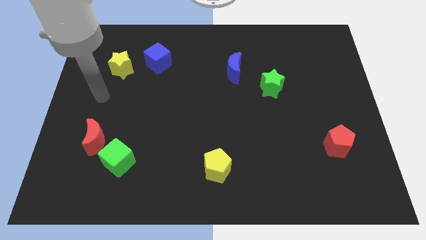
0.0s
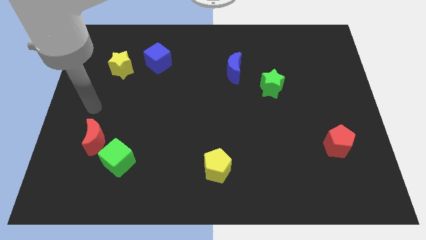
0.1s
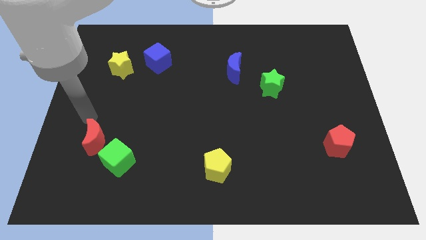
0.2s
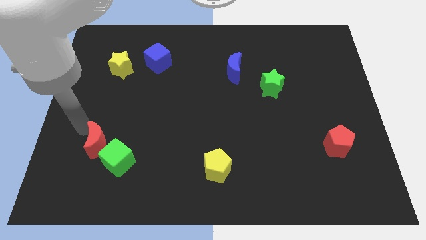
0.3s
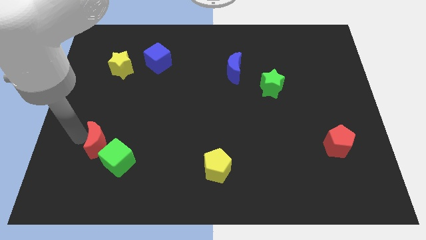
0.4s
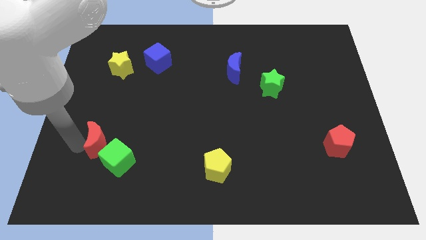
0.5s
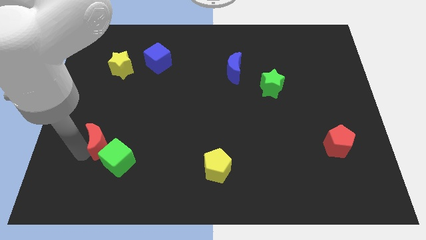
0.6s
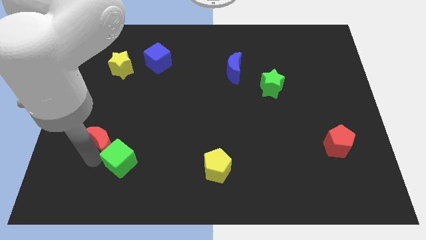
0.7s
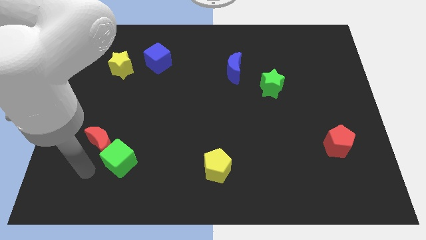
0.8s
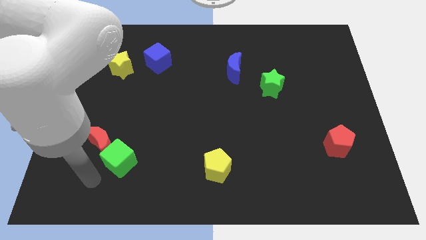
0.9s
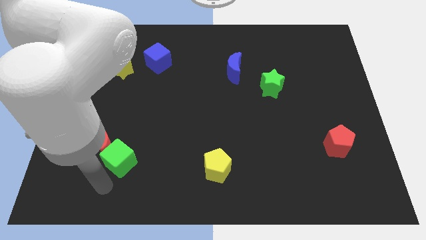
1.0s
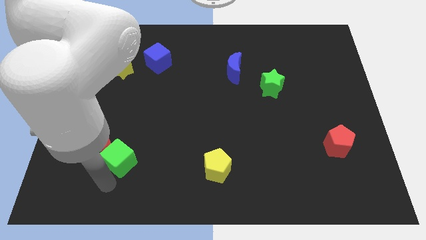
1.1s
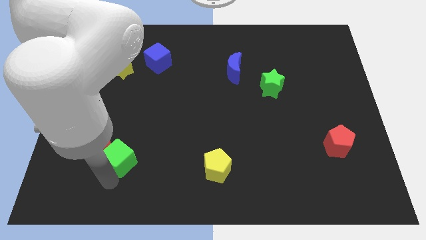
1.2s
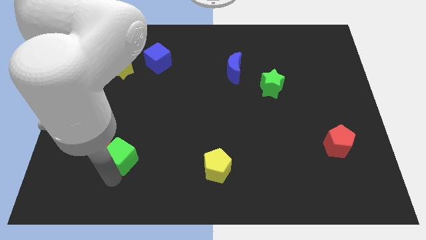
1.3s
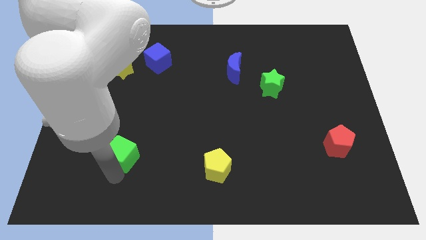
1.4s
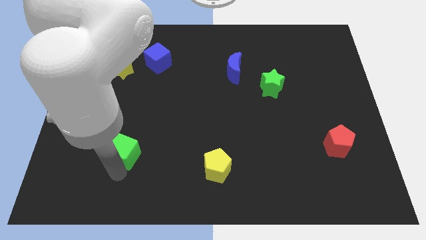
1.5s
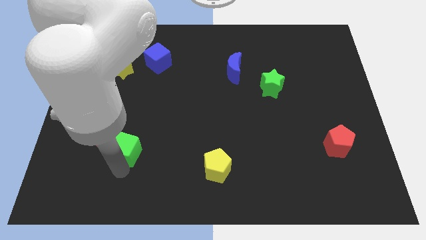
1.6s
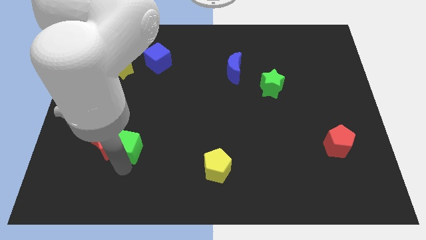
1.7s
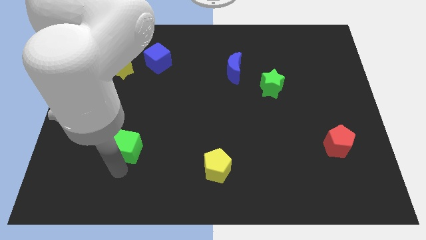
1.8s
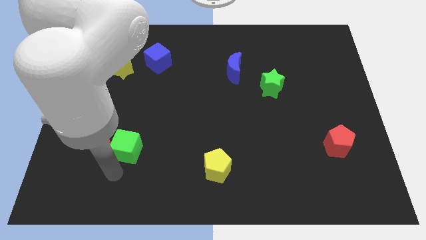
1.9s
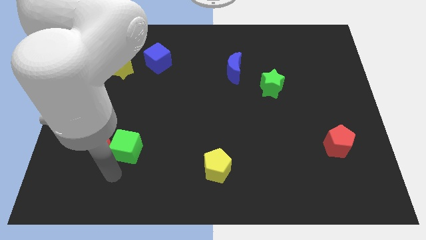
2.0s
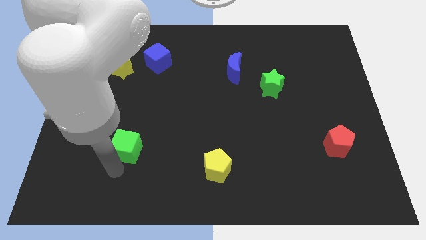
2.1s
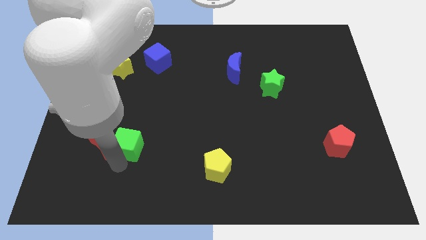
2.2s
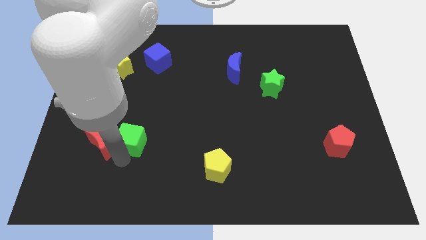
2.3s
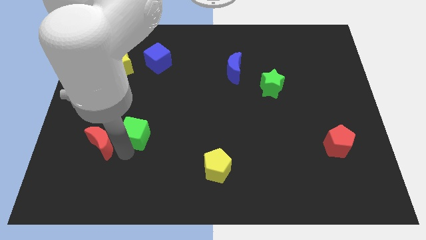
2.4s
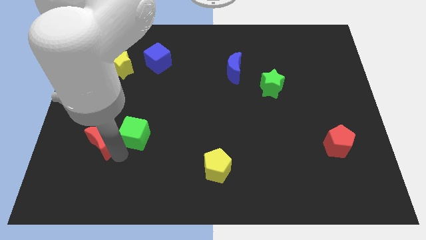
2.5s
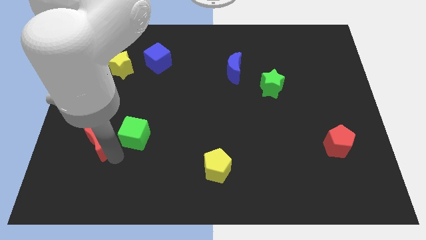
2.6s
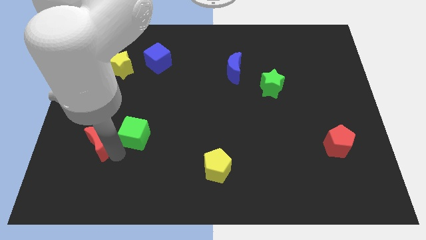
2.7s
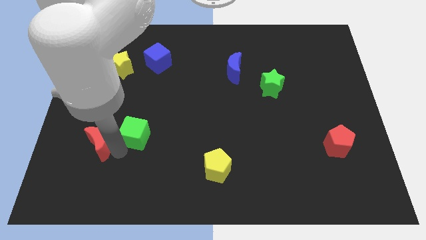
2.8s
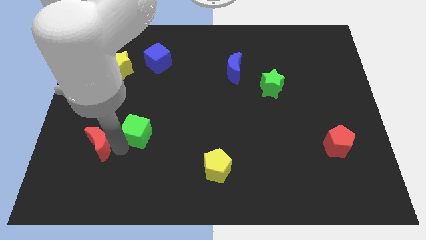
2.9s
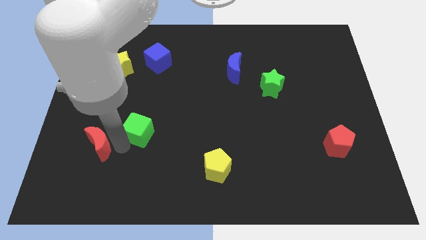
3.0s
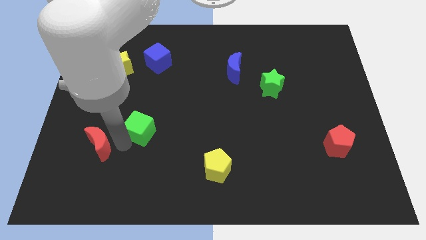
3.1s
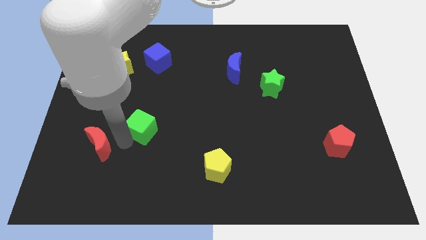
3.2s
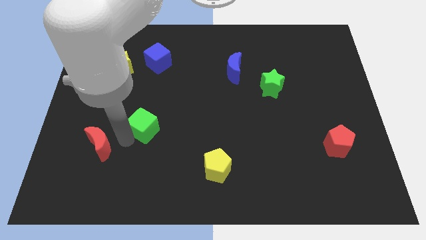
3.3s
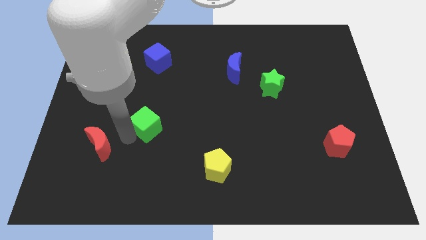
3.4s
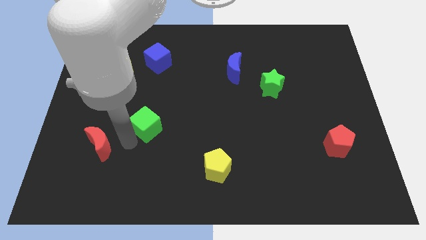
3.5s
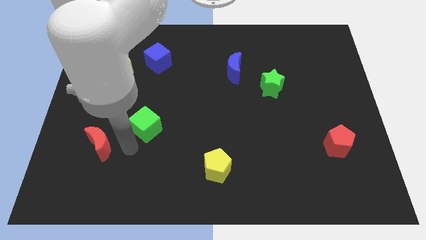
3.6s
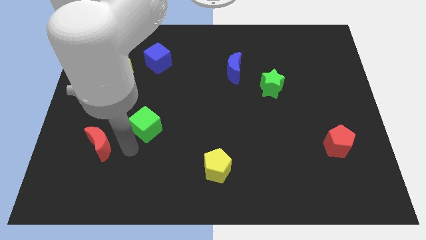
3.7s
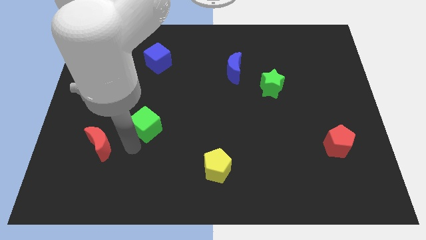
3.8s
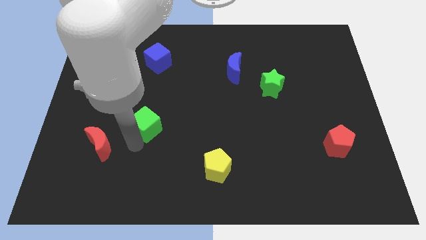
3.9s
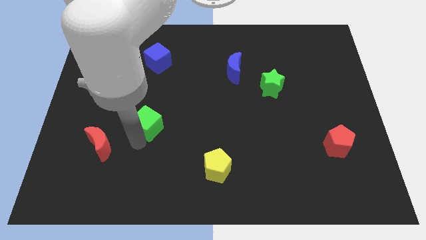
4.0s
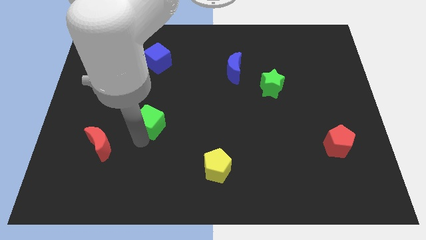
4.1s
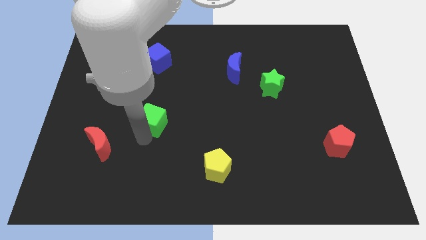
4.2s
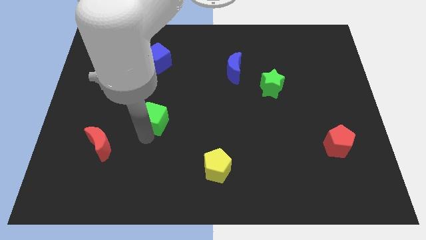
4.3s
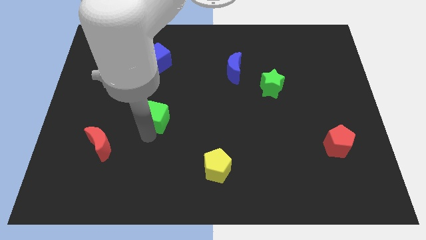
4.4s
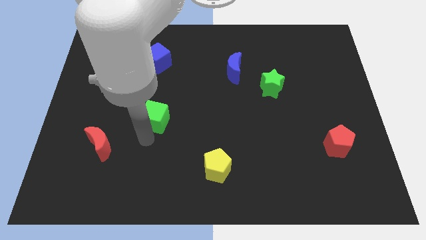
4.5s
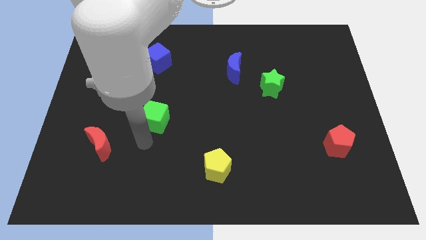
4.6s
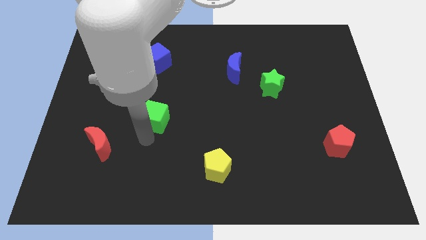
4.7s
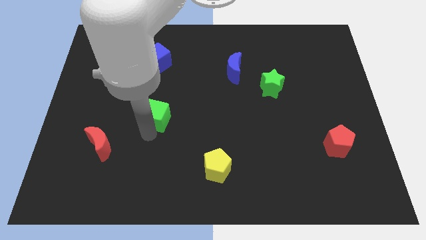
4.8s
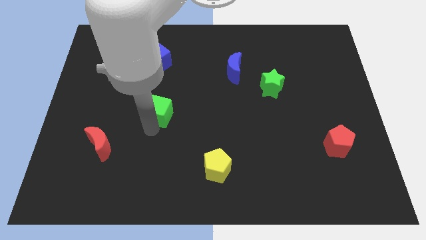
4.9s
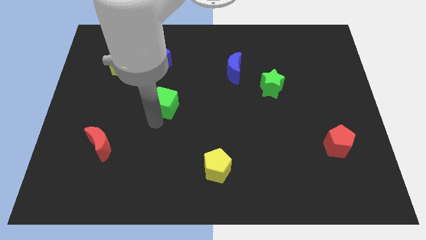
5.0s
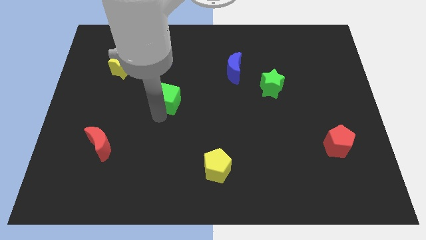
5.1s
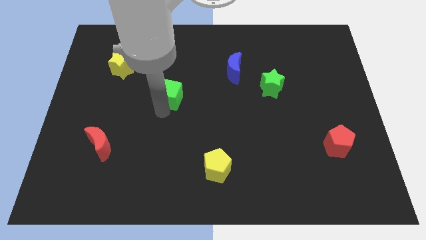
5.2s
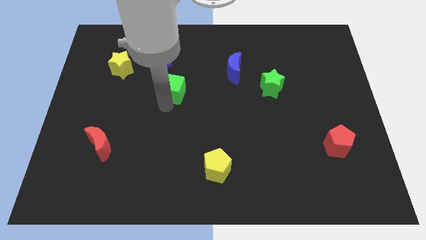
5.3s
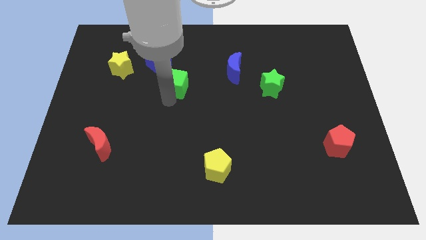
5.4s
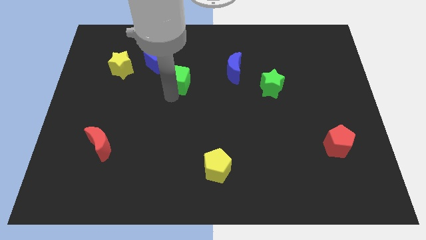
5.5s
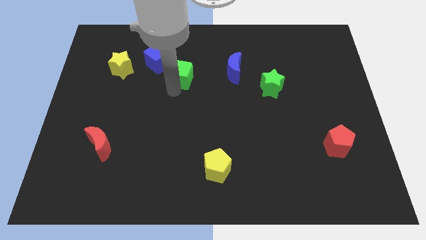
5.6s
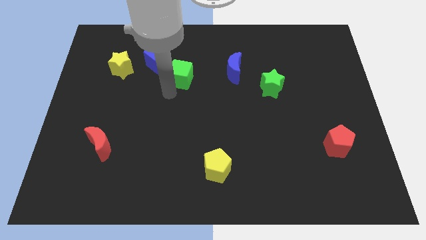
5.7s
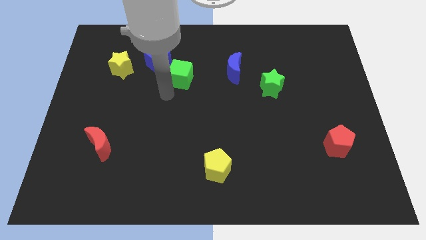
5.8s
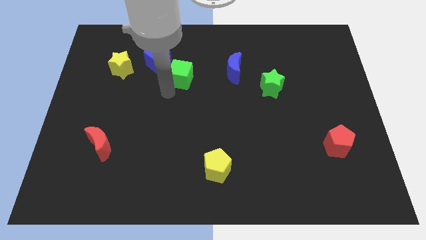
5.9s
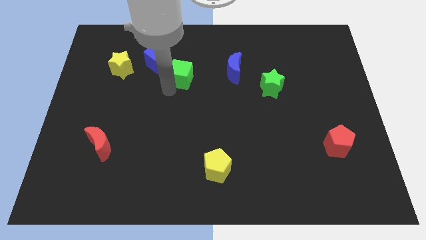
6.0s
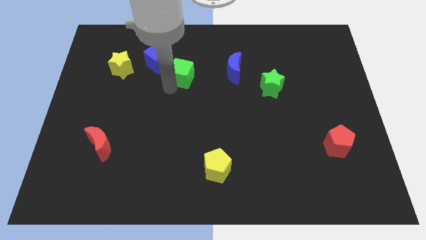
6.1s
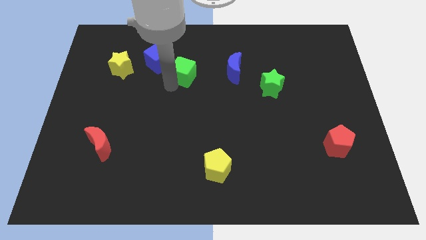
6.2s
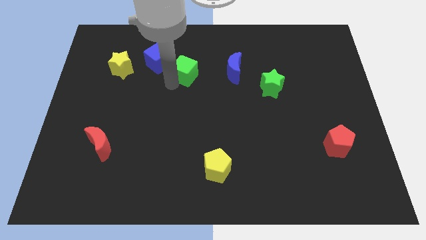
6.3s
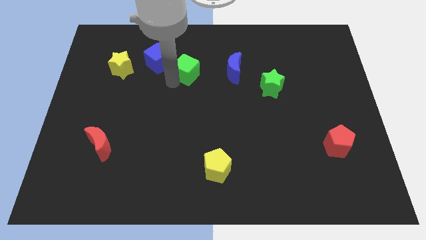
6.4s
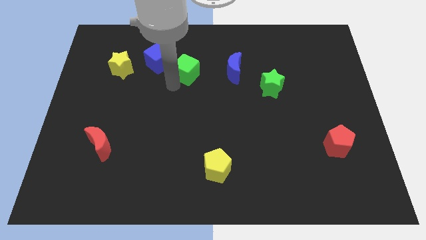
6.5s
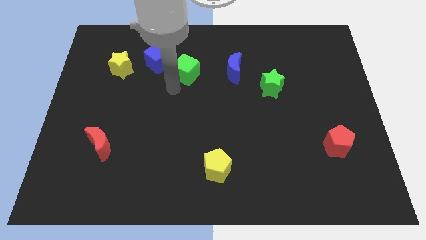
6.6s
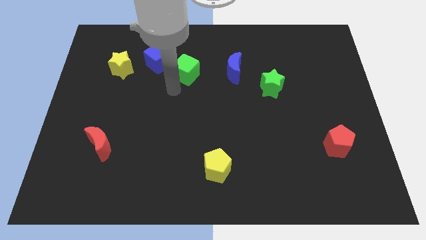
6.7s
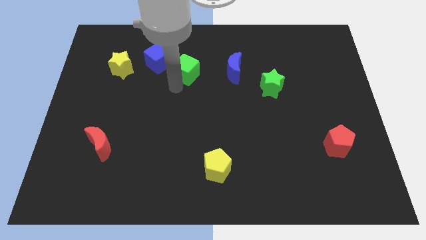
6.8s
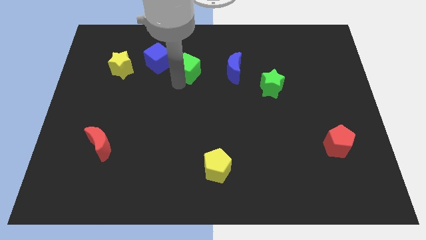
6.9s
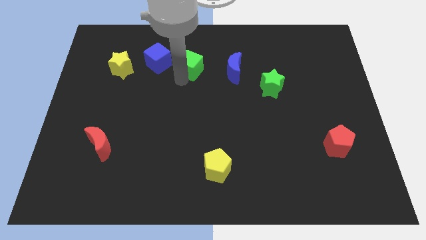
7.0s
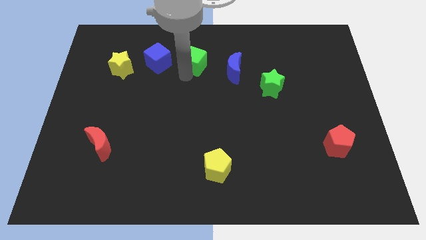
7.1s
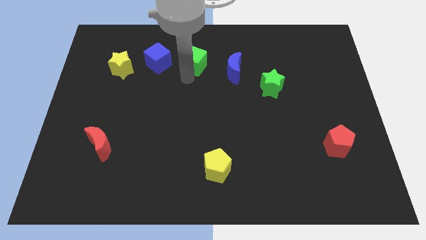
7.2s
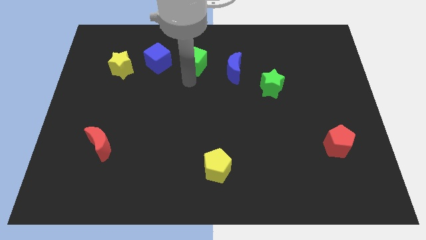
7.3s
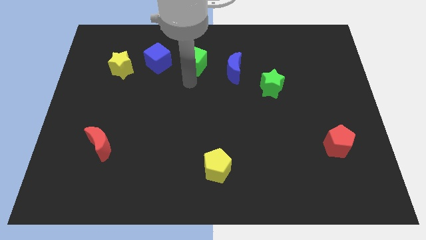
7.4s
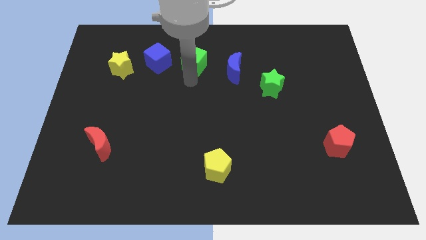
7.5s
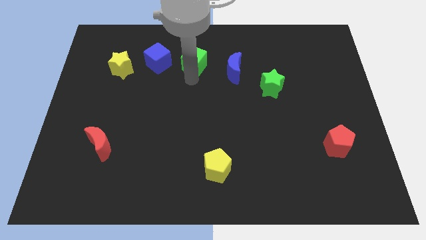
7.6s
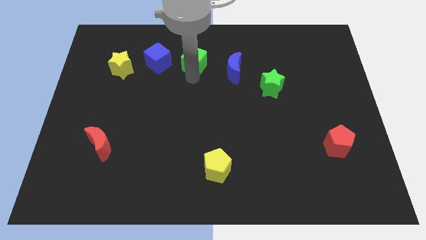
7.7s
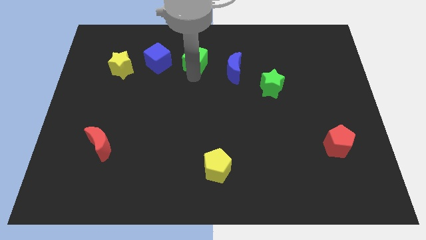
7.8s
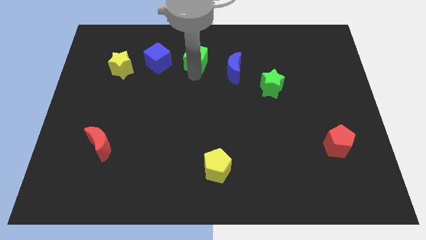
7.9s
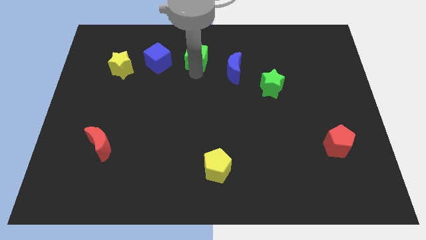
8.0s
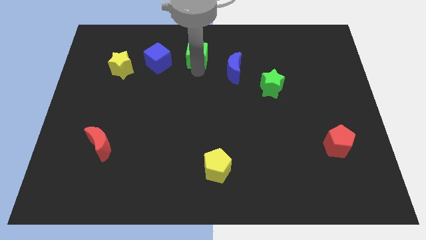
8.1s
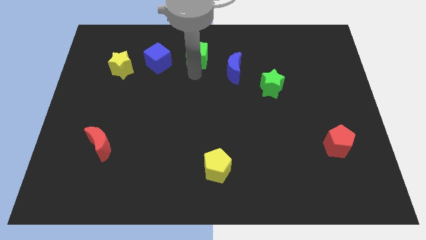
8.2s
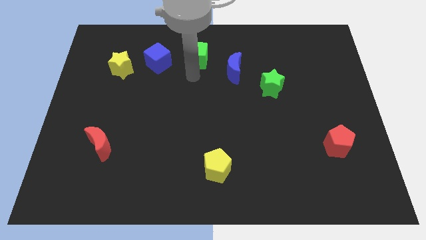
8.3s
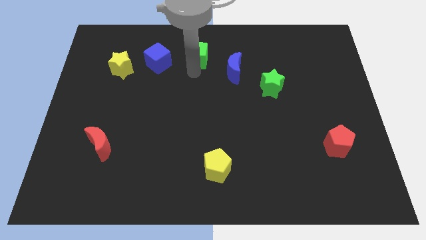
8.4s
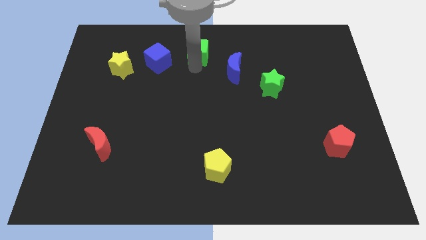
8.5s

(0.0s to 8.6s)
move the green cube to the towards your base
